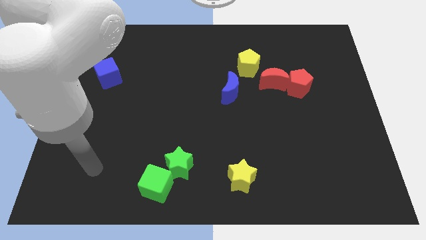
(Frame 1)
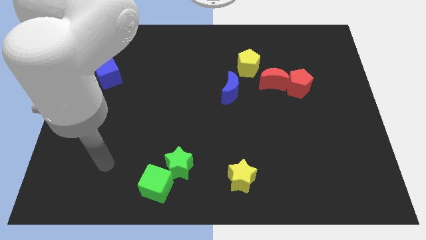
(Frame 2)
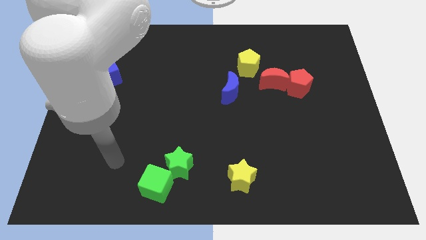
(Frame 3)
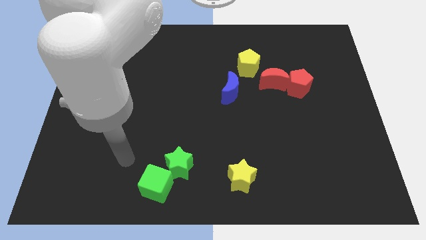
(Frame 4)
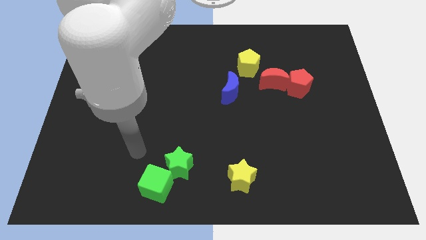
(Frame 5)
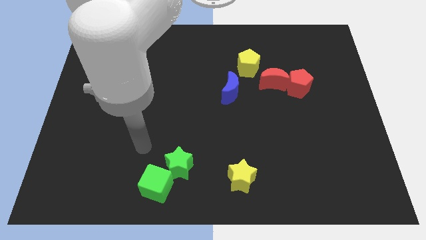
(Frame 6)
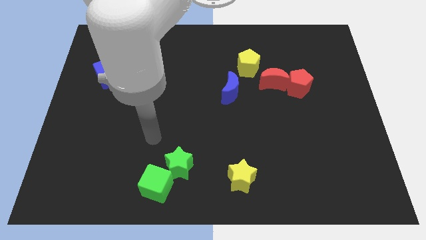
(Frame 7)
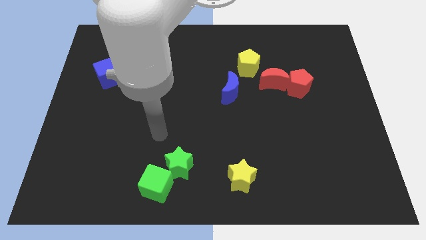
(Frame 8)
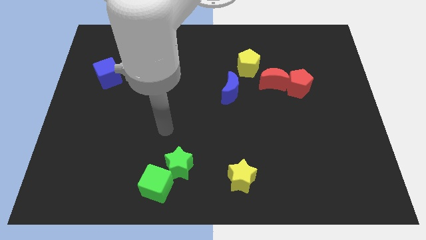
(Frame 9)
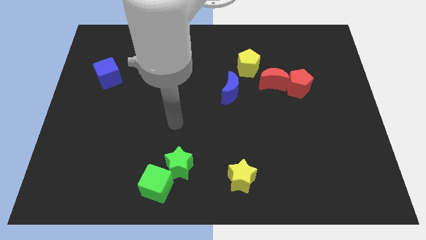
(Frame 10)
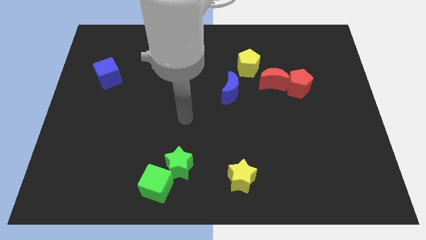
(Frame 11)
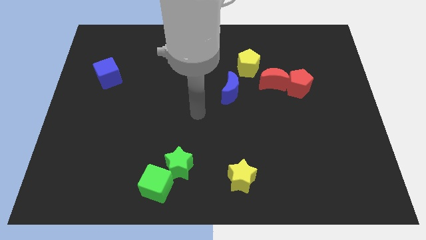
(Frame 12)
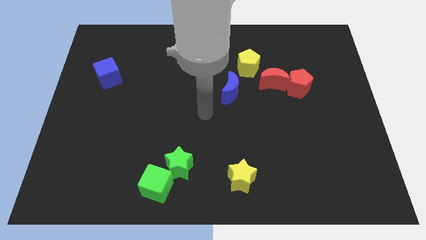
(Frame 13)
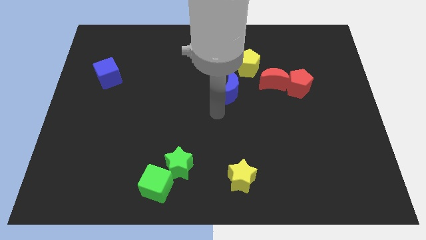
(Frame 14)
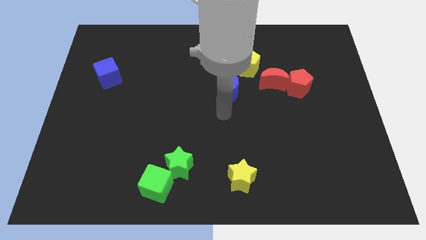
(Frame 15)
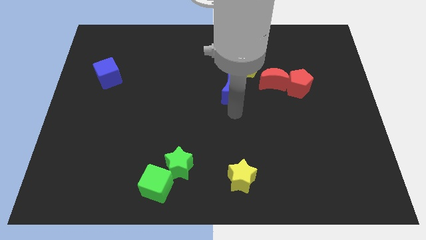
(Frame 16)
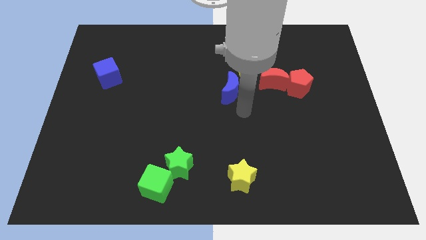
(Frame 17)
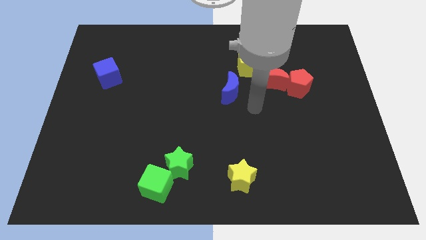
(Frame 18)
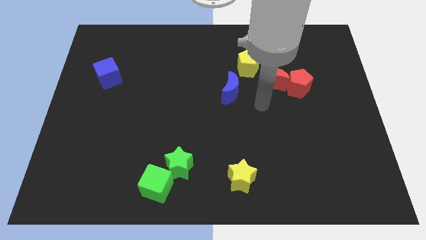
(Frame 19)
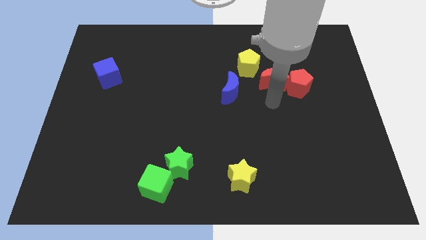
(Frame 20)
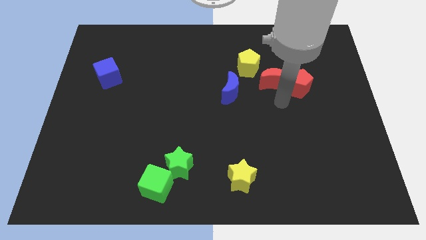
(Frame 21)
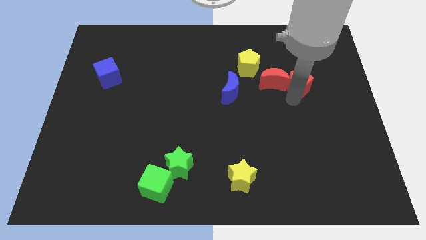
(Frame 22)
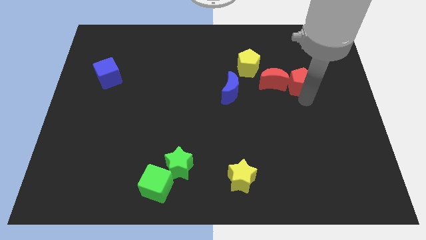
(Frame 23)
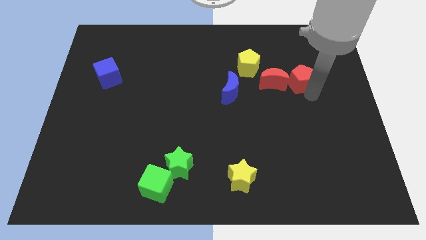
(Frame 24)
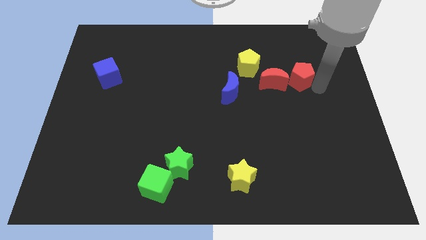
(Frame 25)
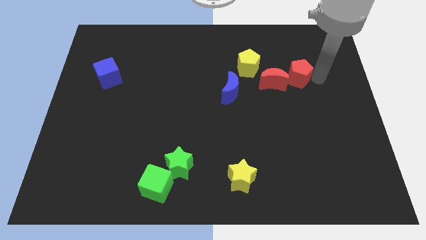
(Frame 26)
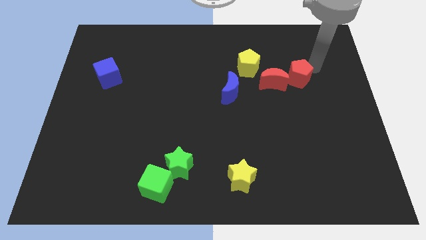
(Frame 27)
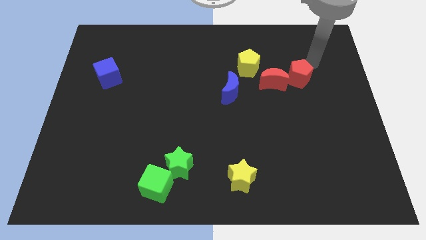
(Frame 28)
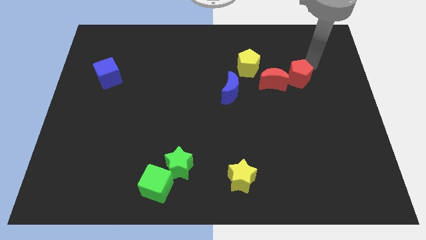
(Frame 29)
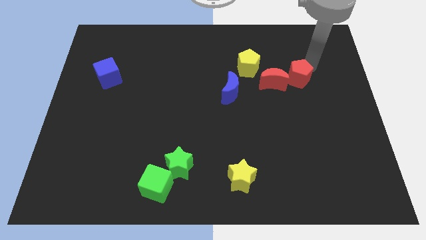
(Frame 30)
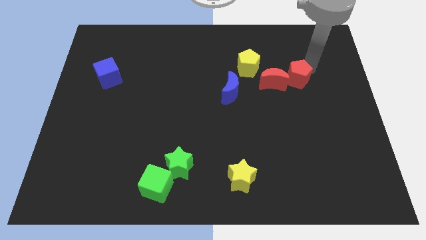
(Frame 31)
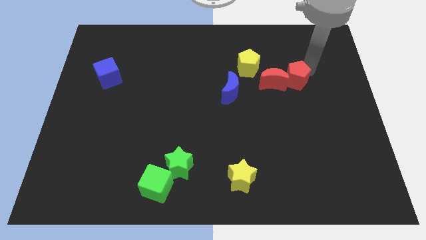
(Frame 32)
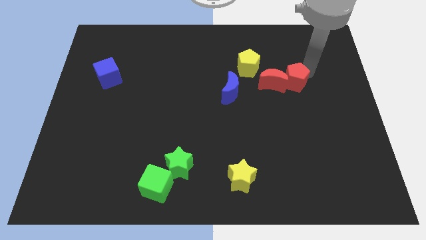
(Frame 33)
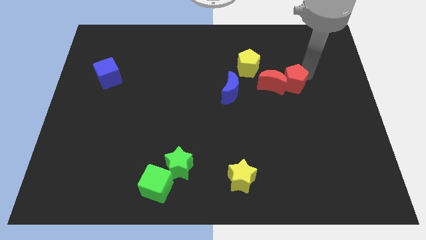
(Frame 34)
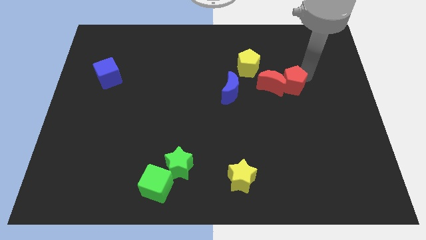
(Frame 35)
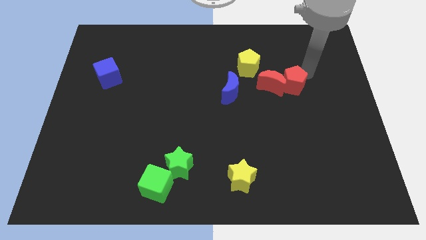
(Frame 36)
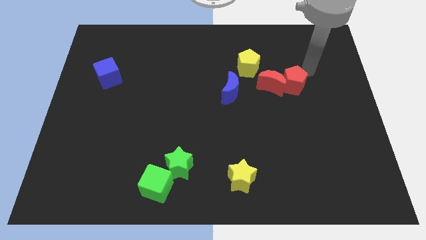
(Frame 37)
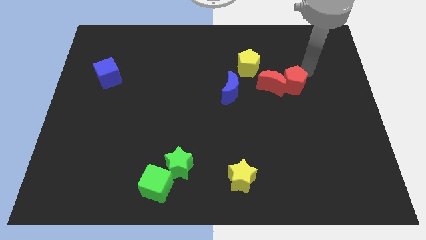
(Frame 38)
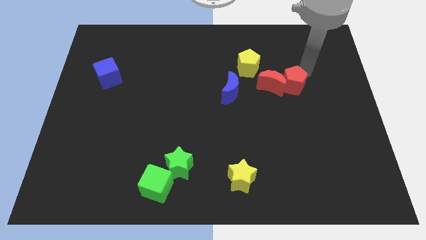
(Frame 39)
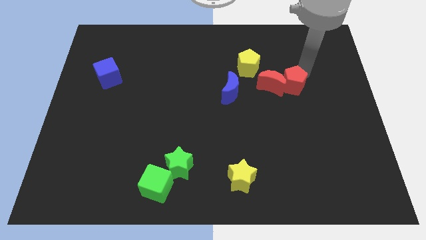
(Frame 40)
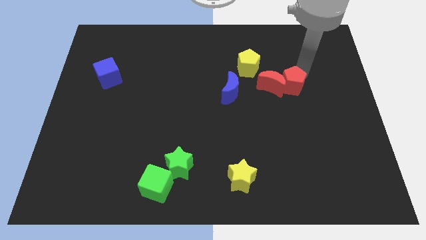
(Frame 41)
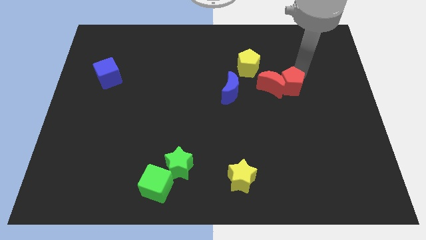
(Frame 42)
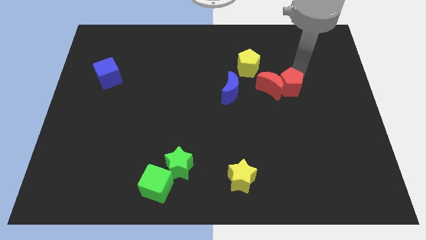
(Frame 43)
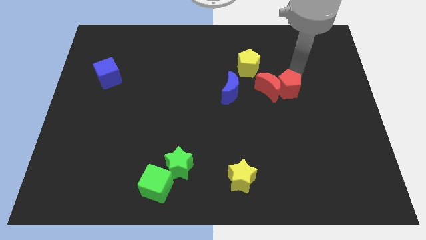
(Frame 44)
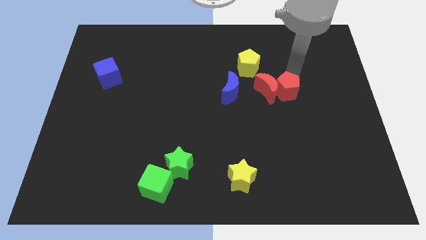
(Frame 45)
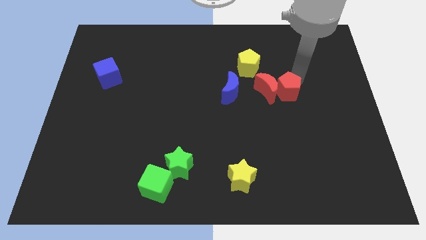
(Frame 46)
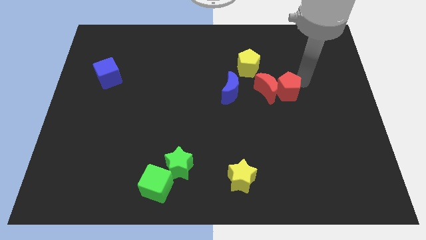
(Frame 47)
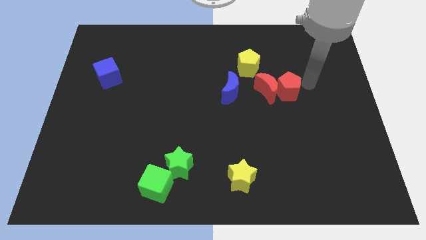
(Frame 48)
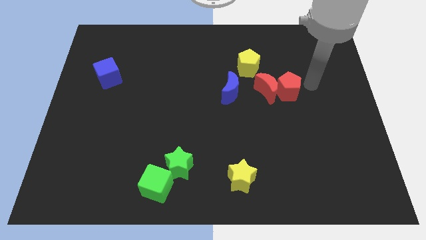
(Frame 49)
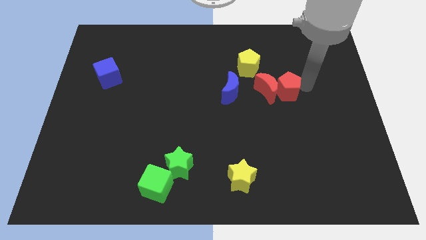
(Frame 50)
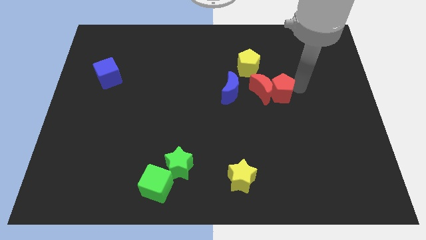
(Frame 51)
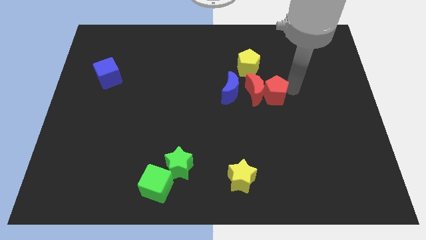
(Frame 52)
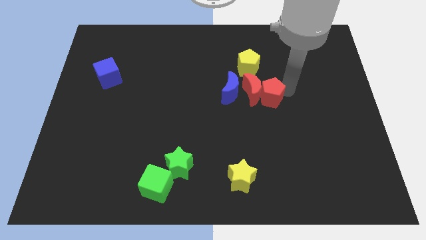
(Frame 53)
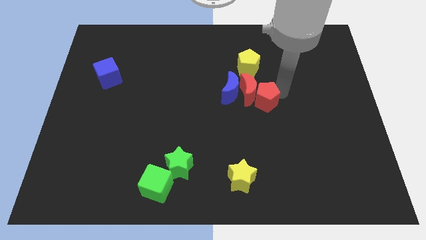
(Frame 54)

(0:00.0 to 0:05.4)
slide the red pentagon to the center

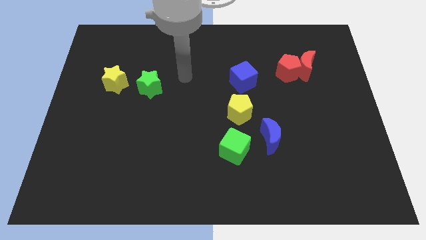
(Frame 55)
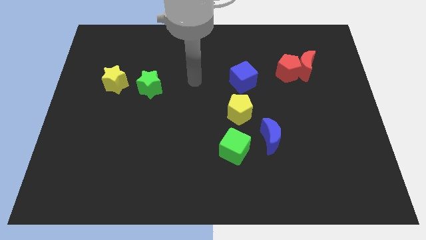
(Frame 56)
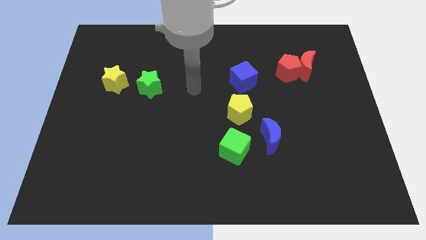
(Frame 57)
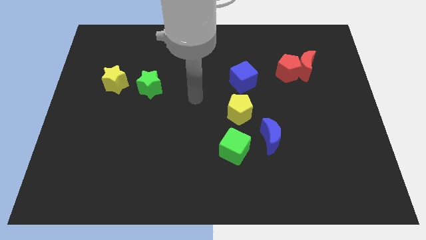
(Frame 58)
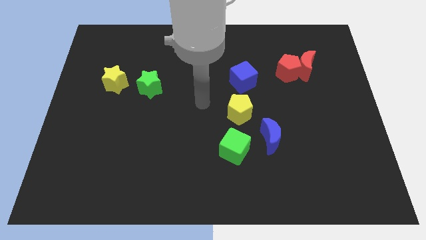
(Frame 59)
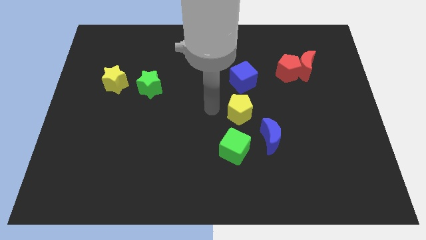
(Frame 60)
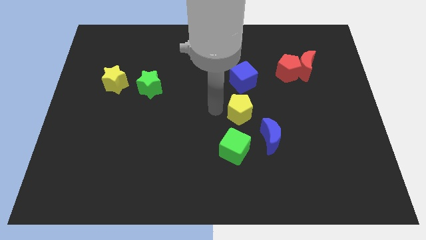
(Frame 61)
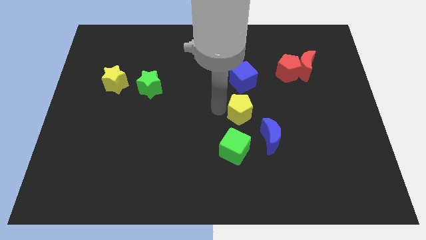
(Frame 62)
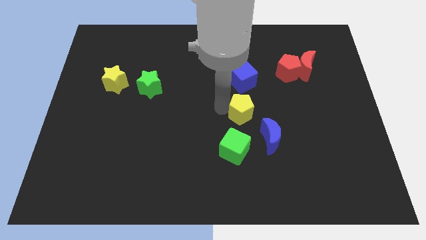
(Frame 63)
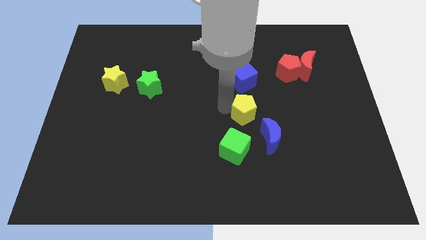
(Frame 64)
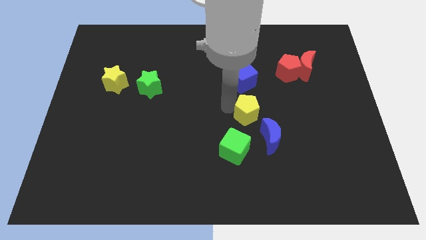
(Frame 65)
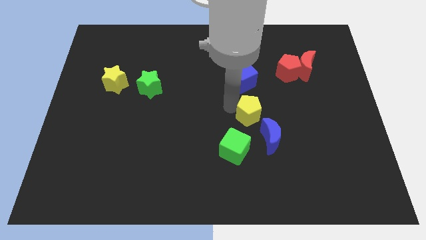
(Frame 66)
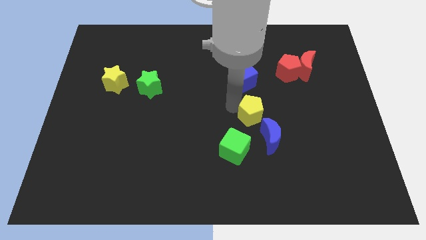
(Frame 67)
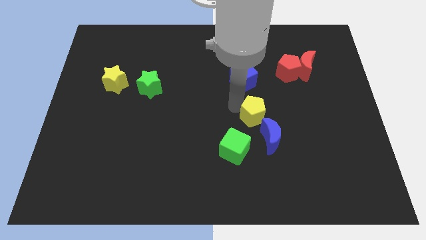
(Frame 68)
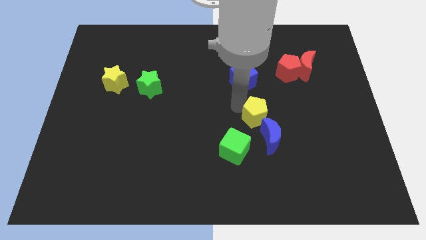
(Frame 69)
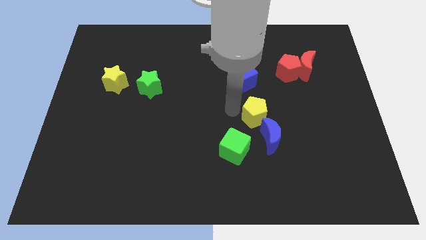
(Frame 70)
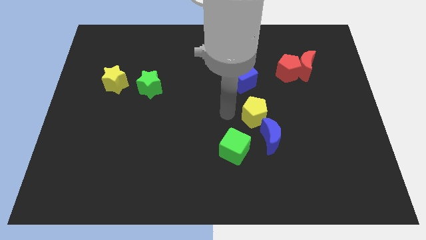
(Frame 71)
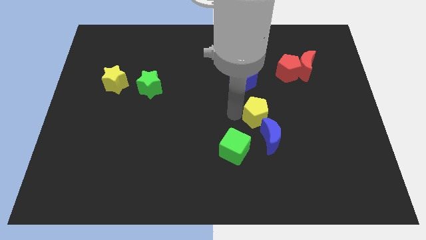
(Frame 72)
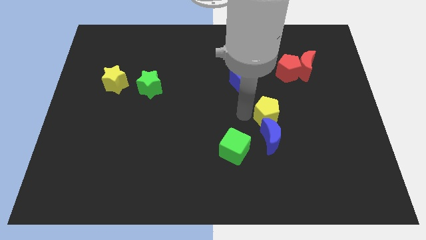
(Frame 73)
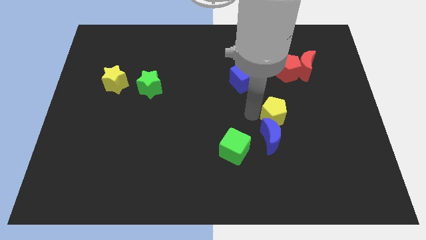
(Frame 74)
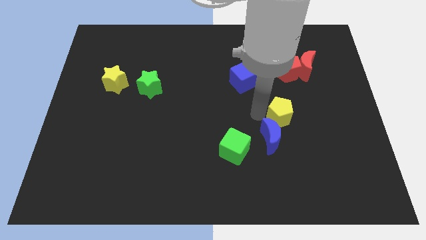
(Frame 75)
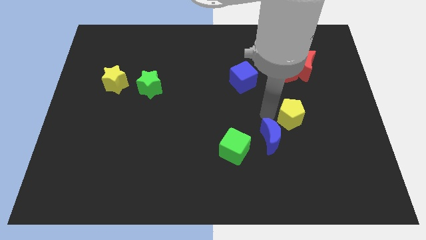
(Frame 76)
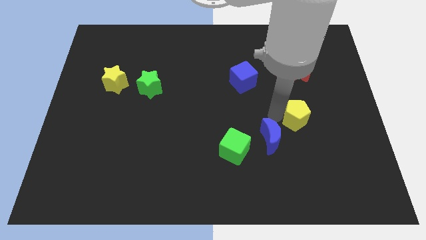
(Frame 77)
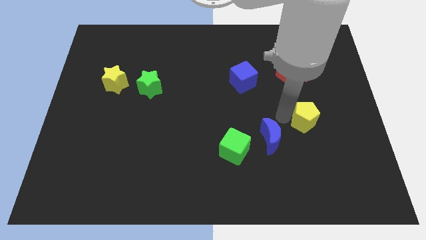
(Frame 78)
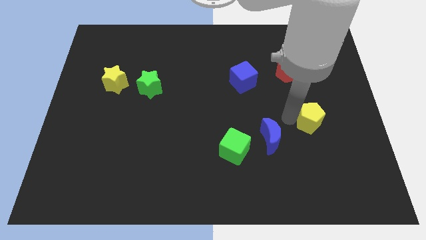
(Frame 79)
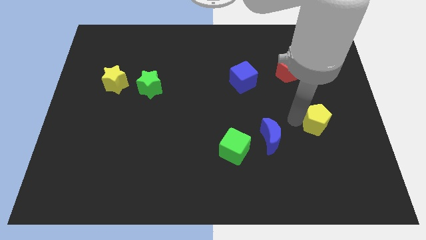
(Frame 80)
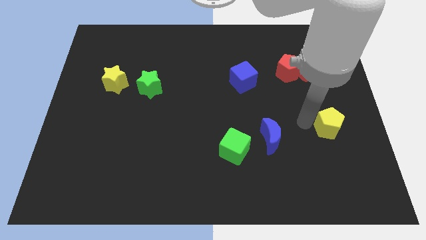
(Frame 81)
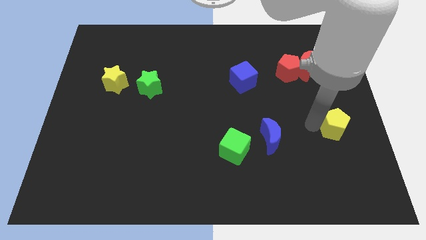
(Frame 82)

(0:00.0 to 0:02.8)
put the yellow pentagon to the right side
